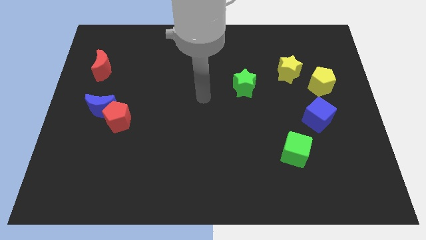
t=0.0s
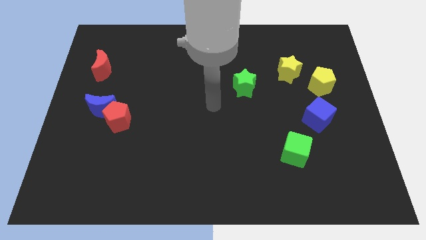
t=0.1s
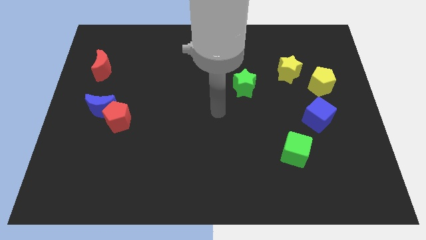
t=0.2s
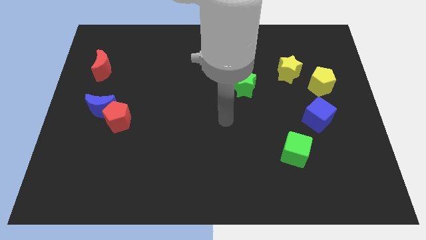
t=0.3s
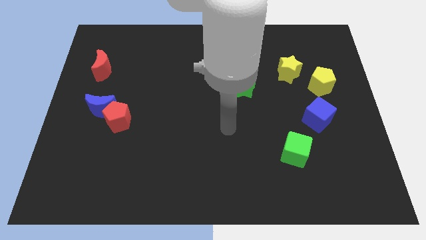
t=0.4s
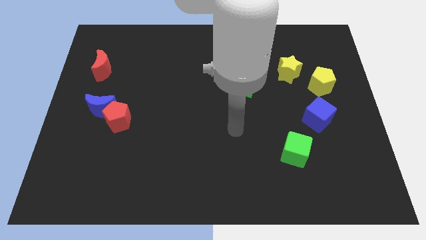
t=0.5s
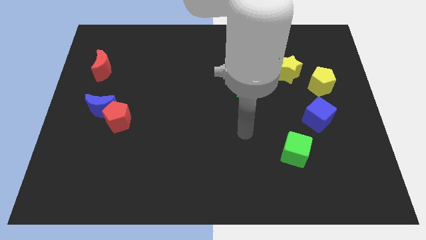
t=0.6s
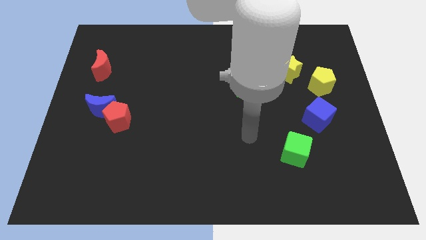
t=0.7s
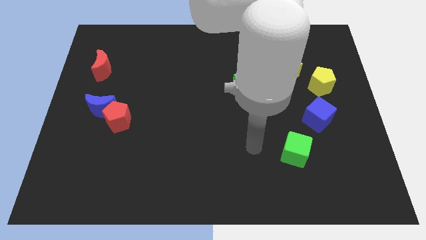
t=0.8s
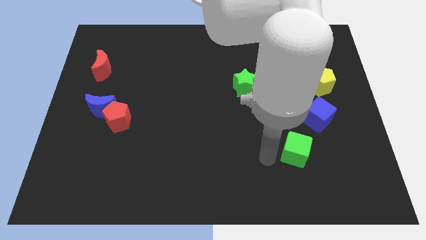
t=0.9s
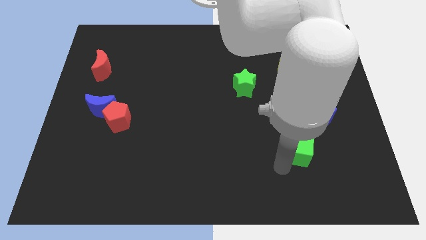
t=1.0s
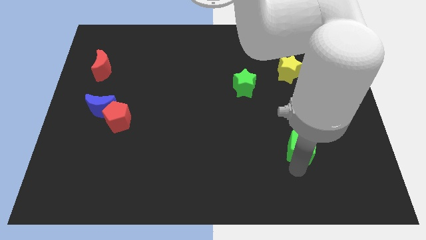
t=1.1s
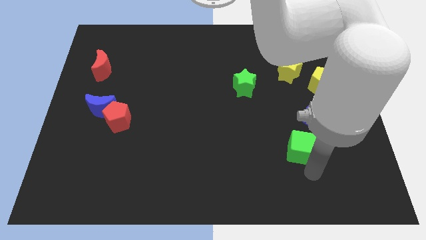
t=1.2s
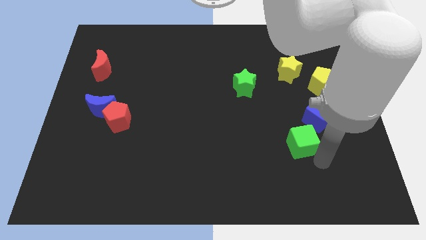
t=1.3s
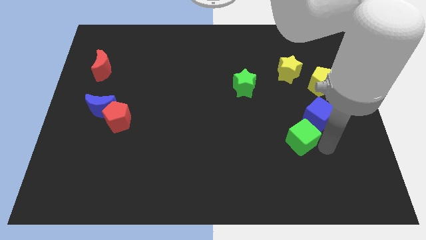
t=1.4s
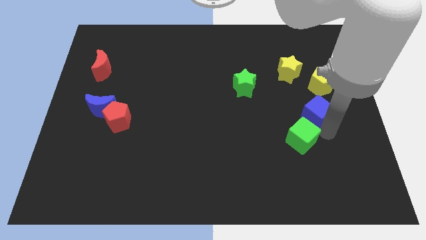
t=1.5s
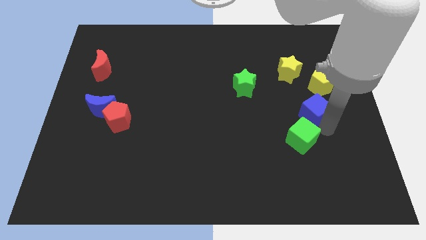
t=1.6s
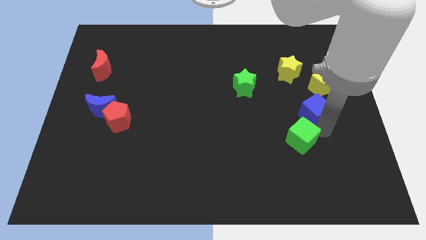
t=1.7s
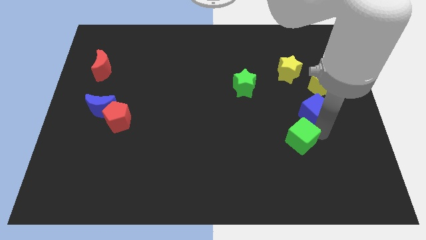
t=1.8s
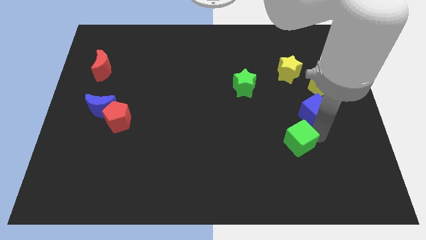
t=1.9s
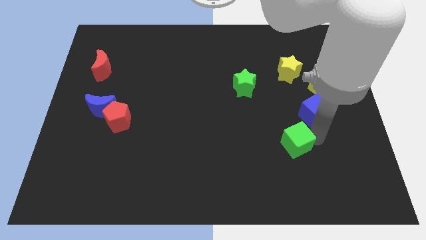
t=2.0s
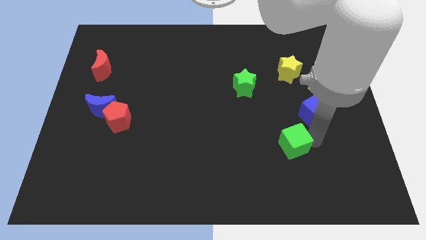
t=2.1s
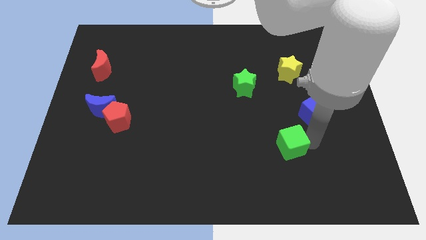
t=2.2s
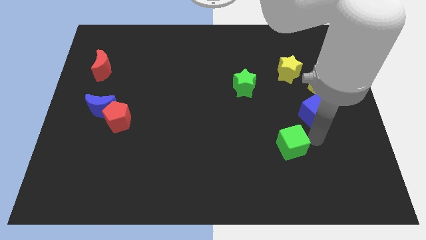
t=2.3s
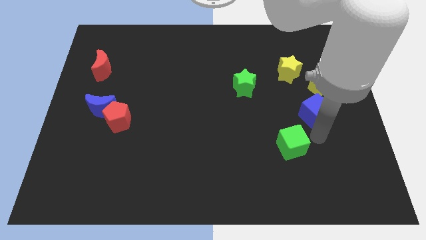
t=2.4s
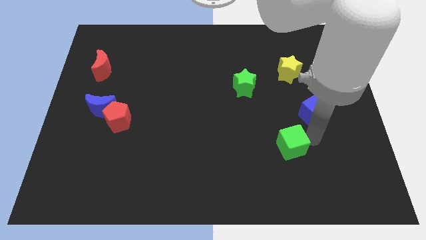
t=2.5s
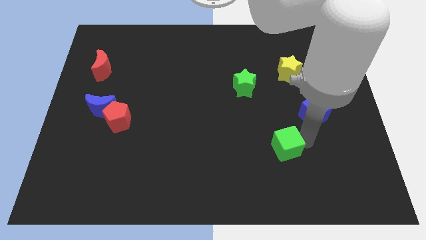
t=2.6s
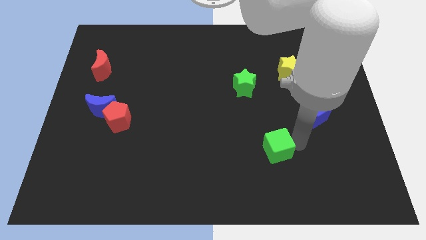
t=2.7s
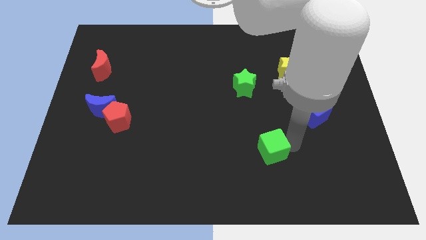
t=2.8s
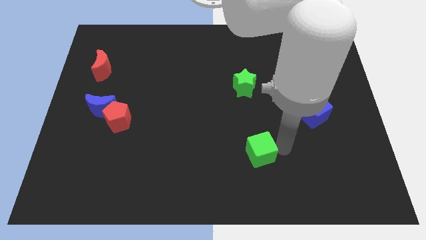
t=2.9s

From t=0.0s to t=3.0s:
slightly push the green cube to the left

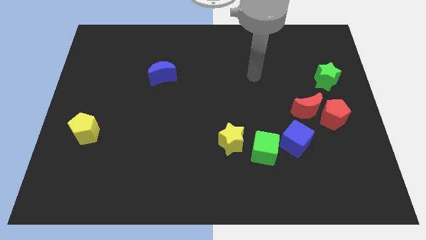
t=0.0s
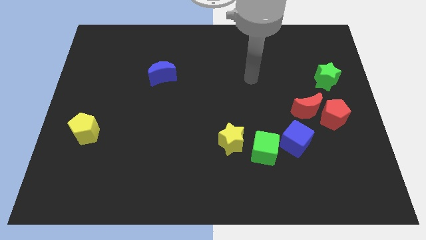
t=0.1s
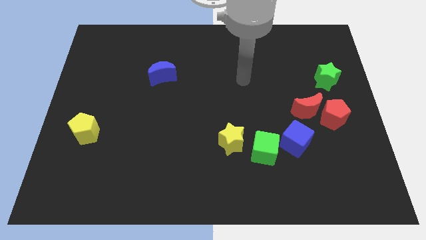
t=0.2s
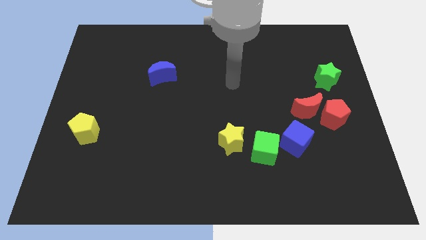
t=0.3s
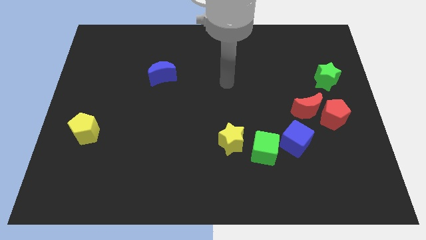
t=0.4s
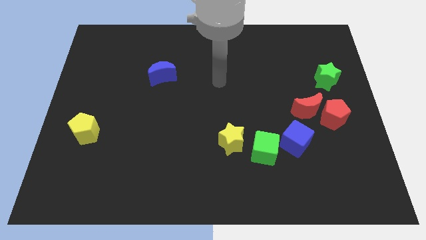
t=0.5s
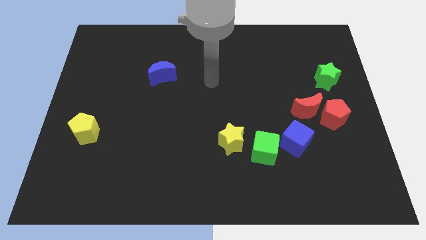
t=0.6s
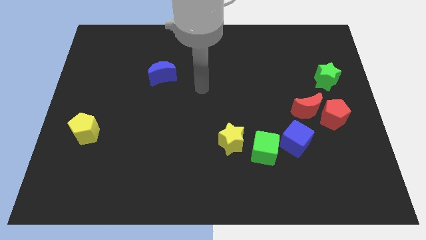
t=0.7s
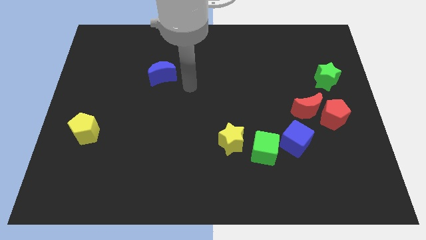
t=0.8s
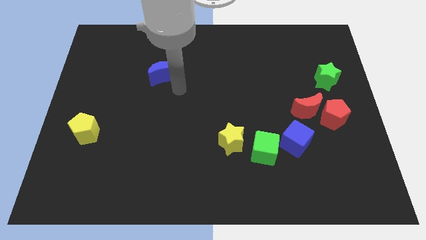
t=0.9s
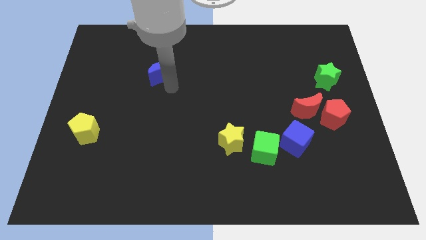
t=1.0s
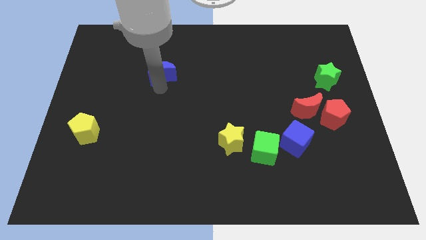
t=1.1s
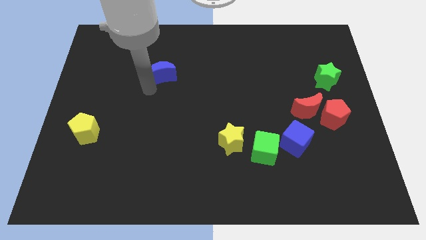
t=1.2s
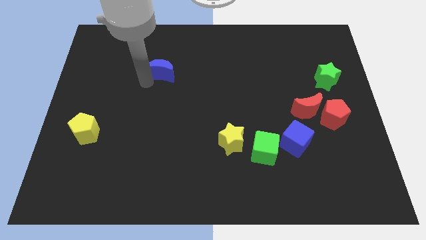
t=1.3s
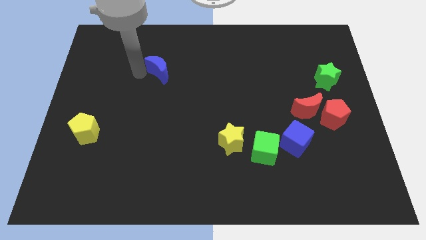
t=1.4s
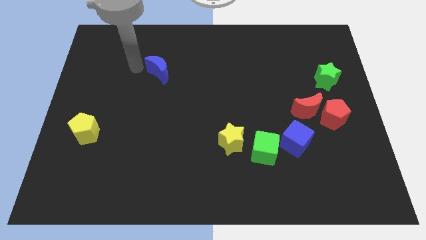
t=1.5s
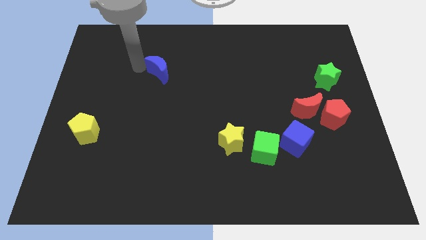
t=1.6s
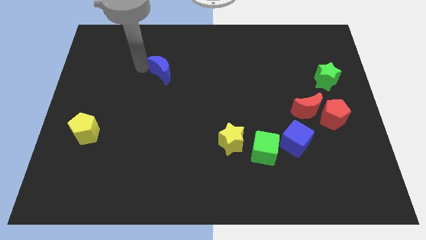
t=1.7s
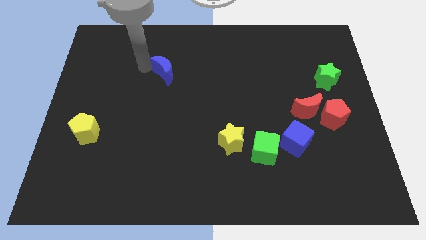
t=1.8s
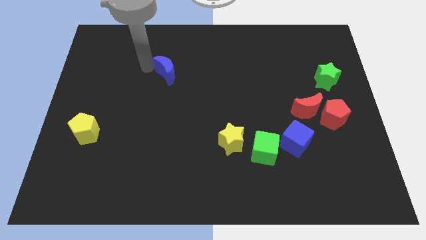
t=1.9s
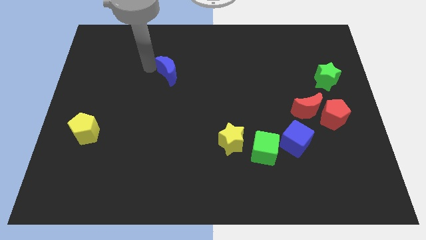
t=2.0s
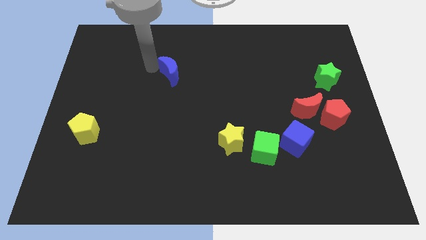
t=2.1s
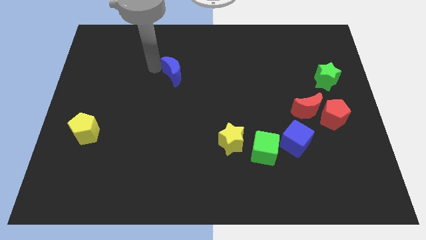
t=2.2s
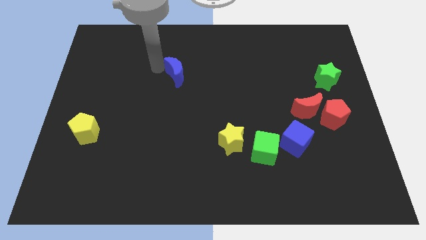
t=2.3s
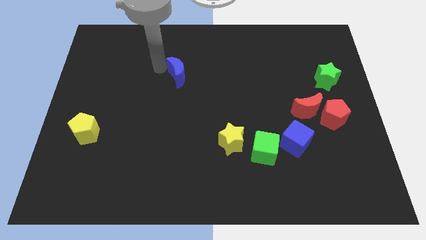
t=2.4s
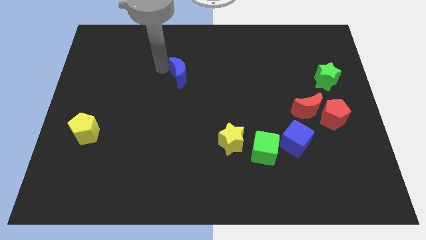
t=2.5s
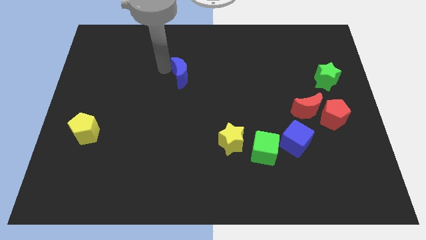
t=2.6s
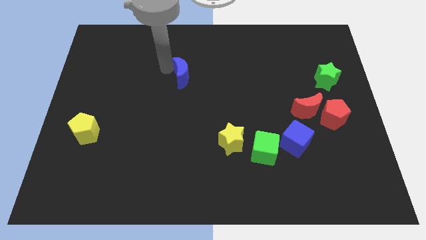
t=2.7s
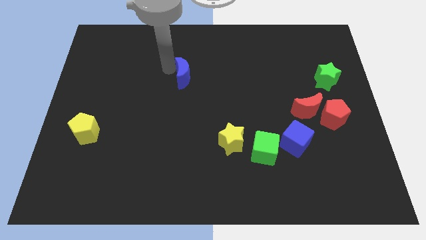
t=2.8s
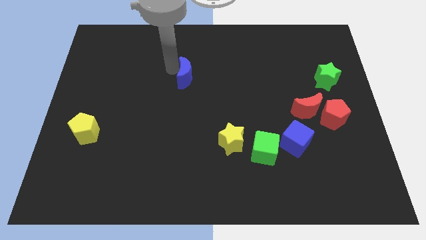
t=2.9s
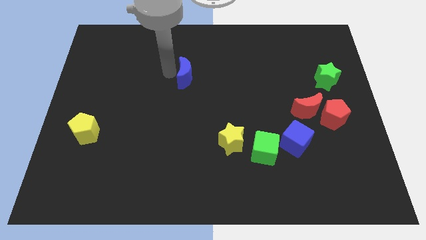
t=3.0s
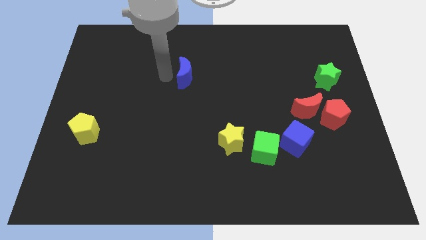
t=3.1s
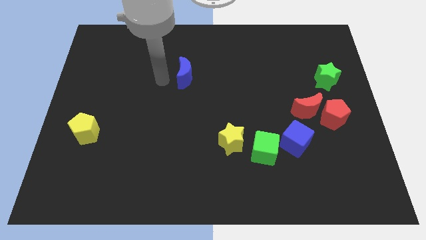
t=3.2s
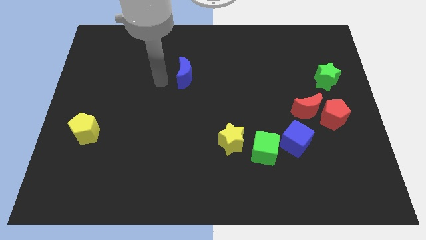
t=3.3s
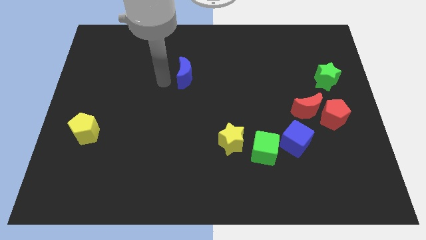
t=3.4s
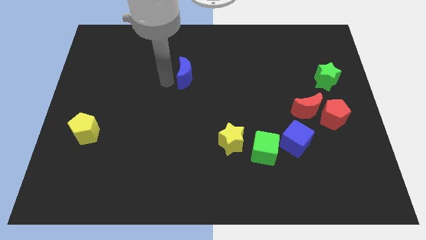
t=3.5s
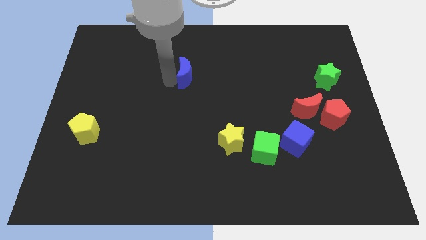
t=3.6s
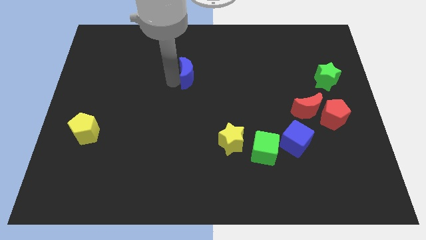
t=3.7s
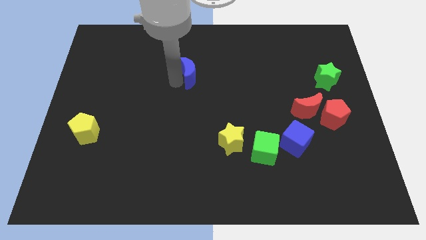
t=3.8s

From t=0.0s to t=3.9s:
slide the blue moon somewhat right

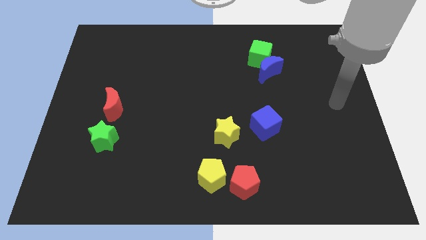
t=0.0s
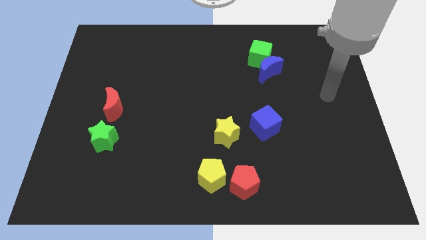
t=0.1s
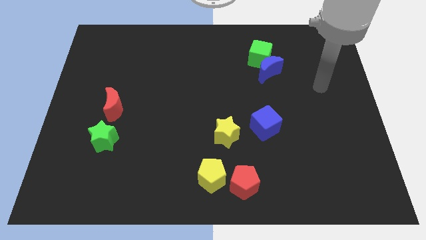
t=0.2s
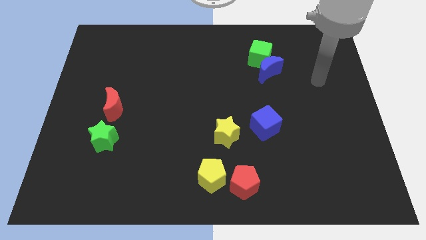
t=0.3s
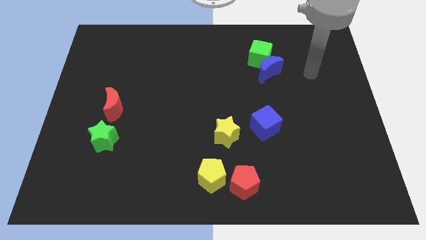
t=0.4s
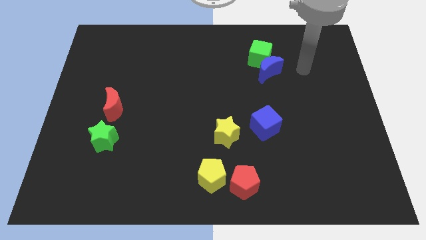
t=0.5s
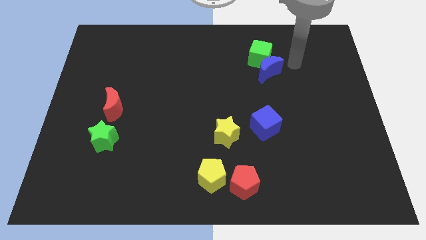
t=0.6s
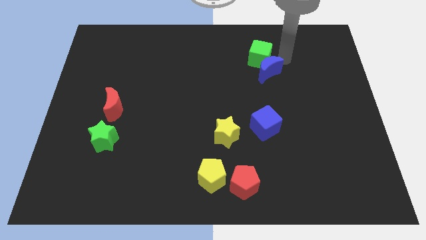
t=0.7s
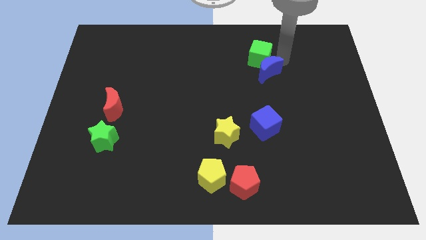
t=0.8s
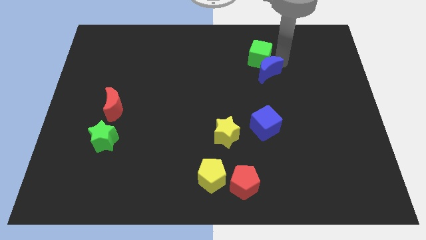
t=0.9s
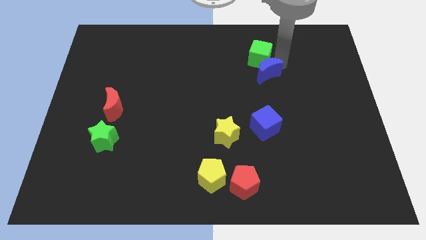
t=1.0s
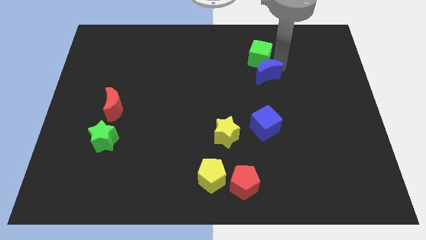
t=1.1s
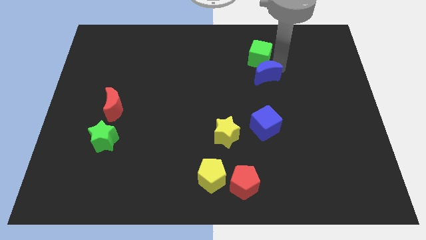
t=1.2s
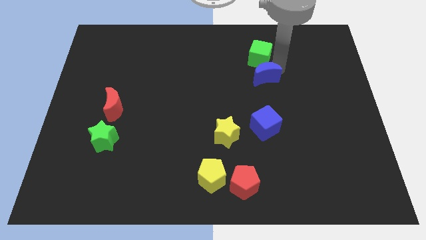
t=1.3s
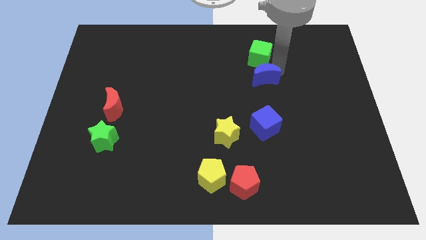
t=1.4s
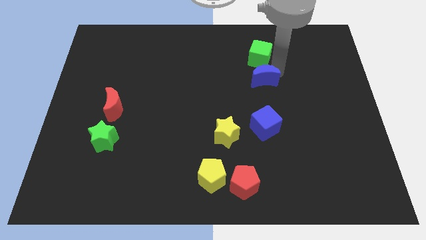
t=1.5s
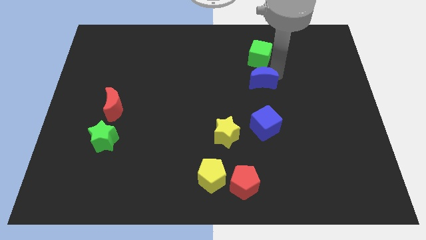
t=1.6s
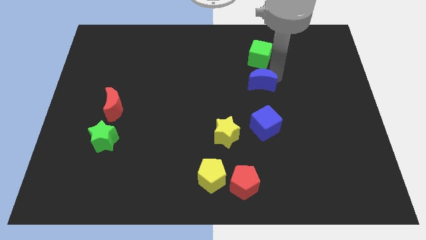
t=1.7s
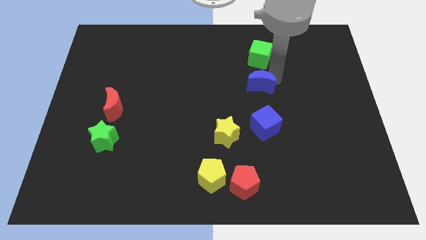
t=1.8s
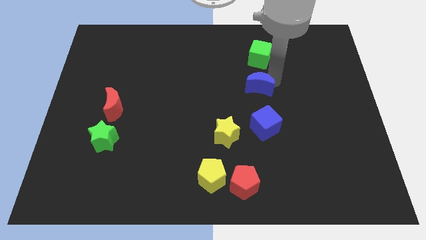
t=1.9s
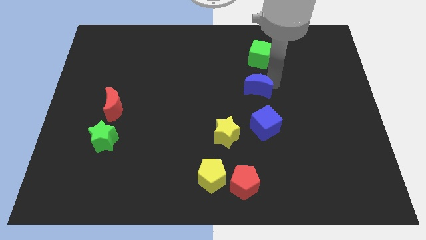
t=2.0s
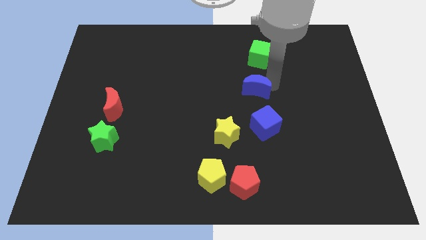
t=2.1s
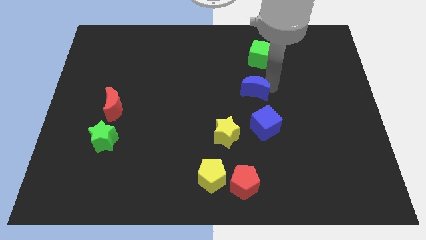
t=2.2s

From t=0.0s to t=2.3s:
slide the blue moon down and to the left diagonally a little
